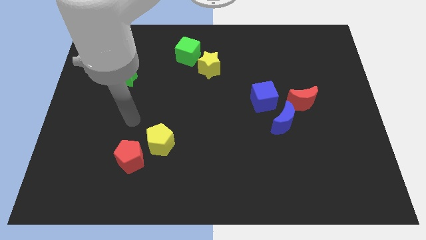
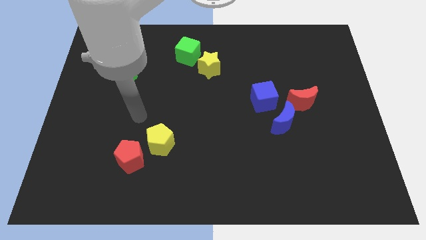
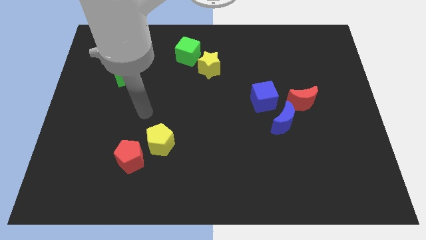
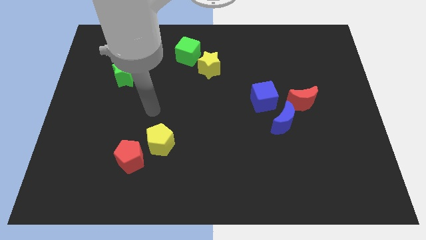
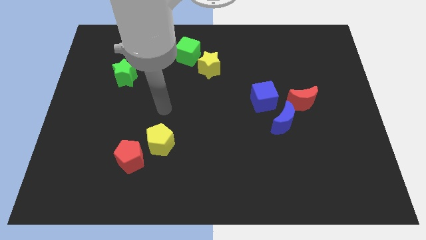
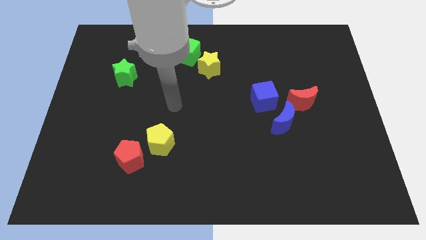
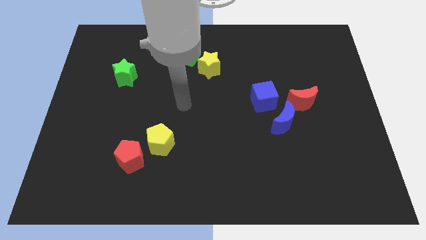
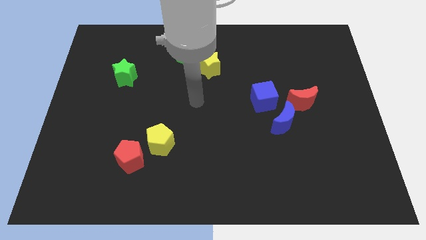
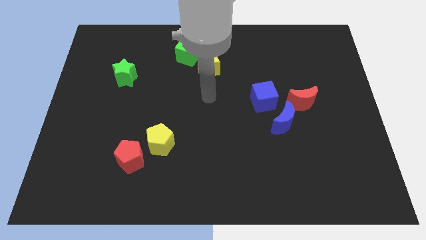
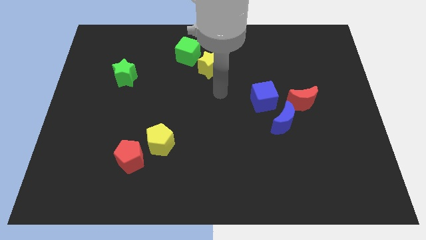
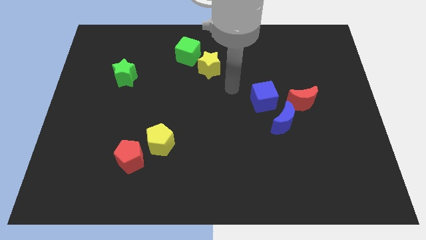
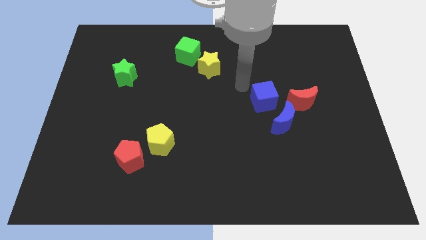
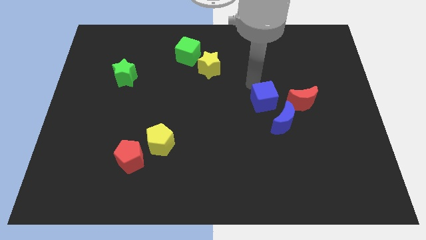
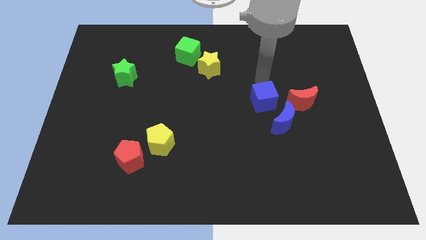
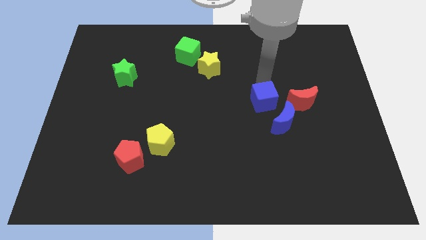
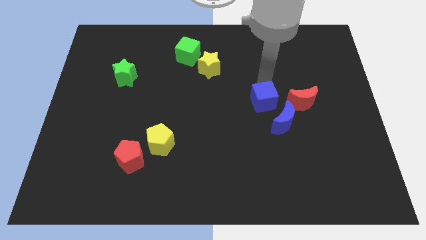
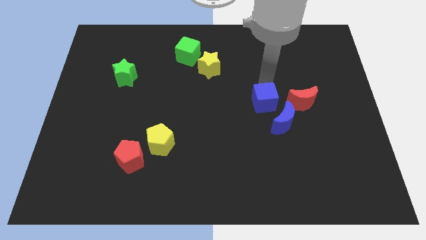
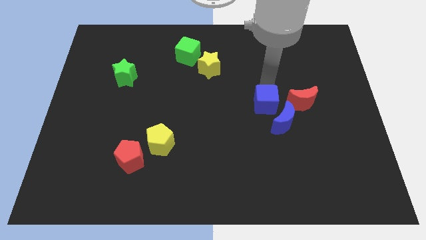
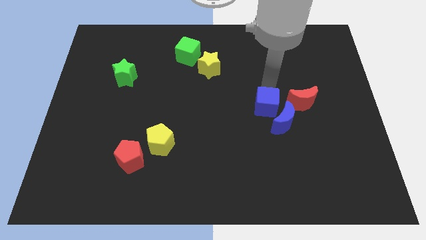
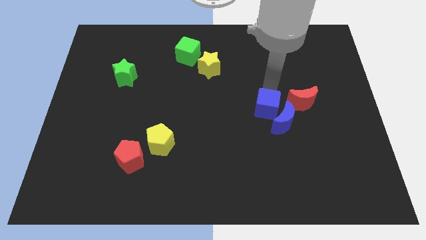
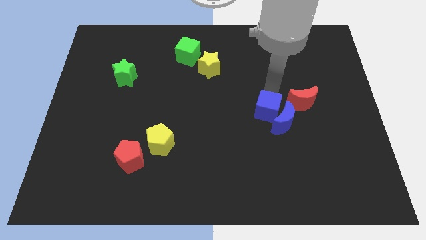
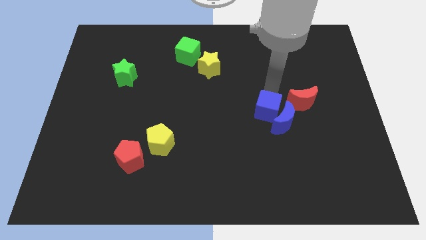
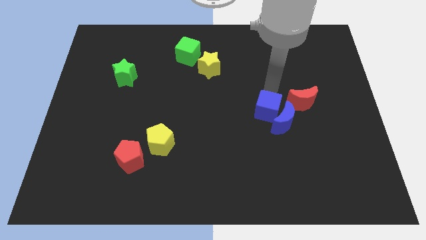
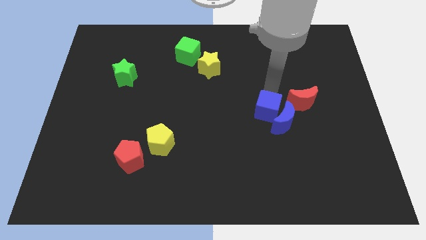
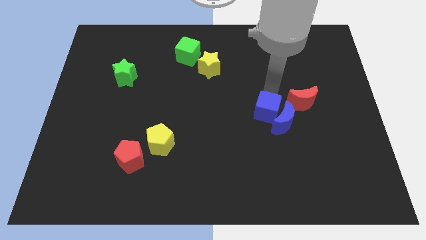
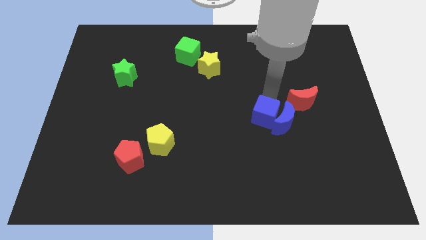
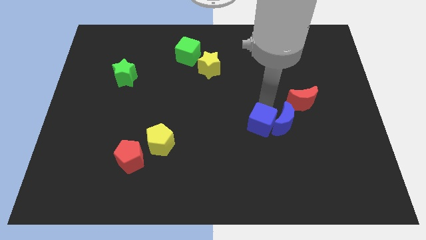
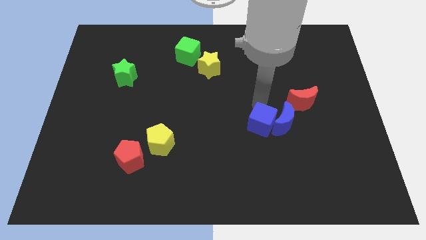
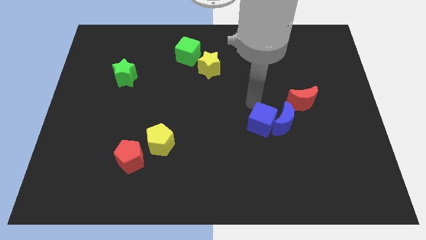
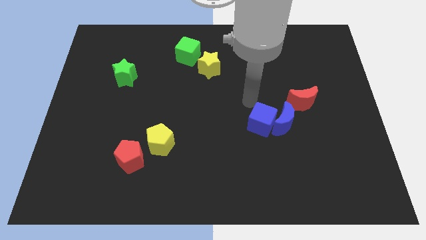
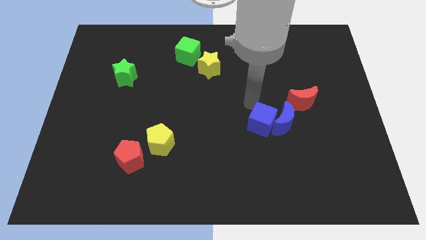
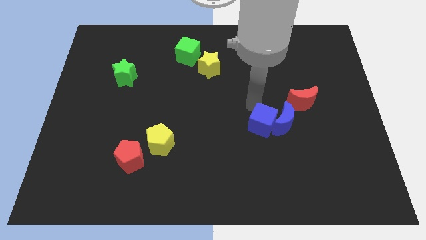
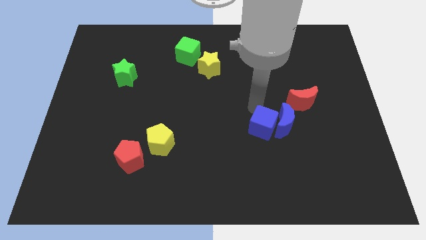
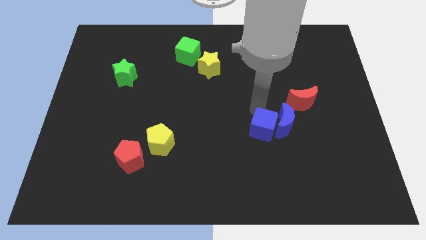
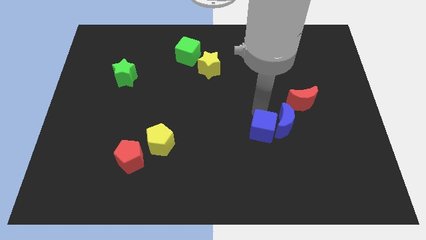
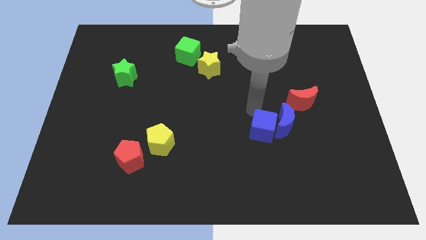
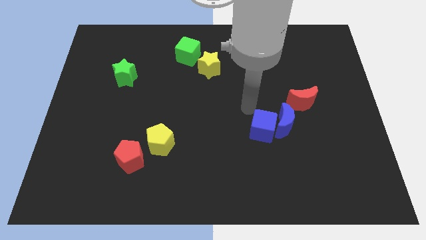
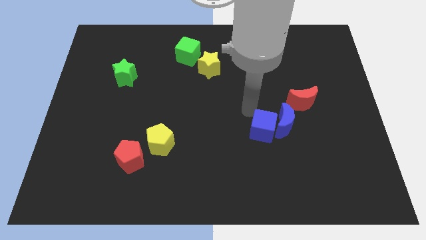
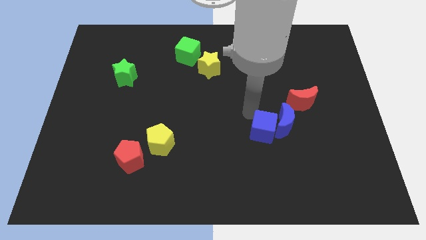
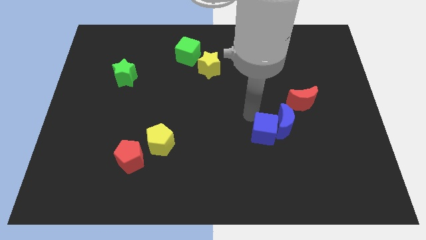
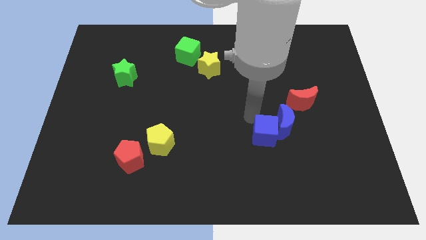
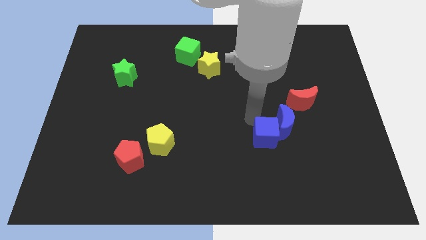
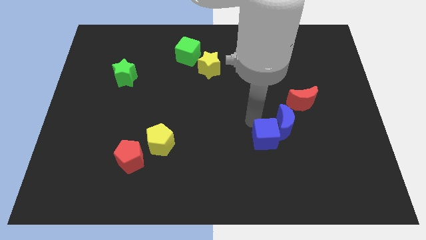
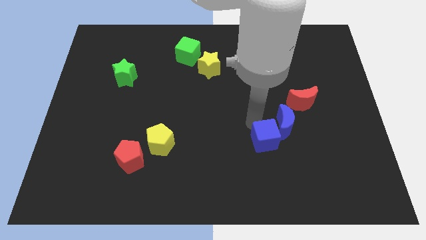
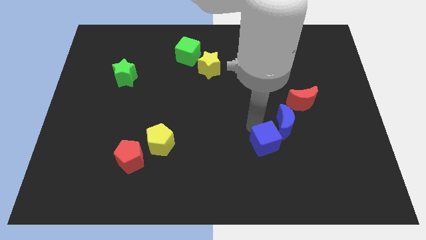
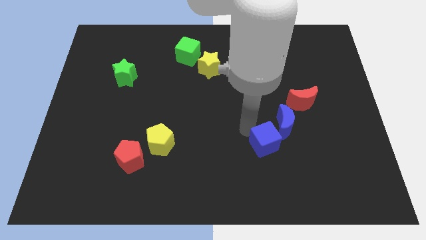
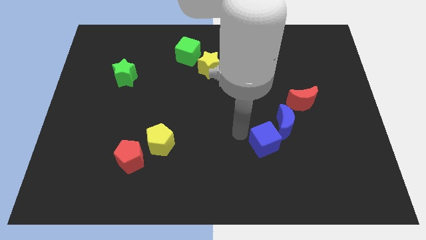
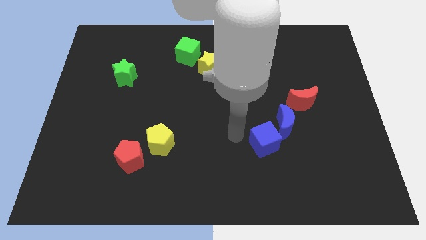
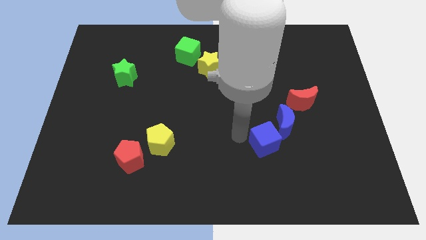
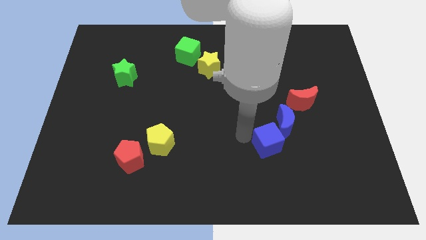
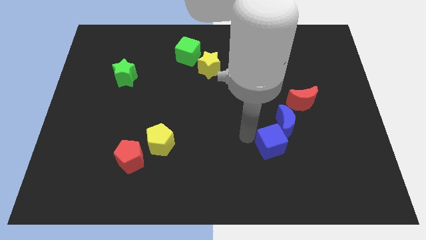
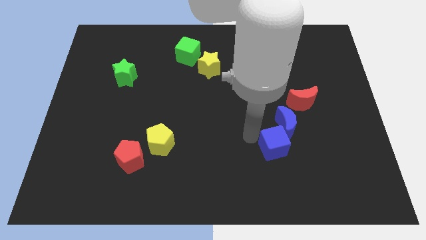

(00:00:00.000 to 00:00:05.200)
push the blue cube a bit downwards and right diagonally

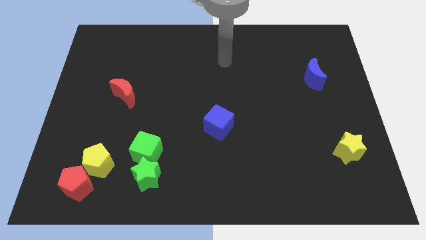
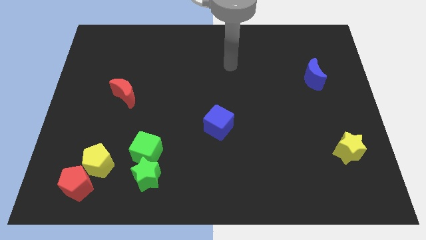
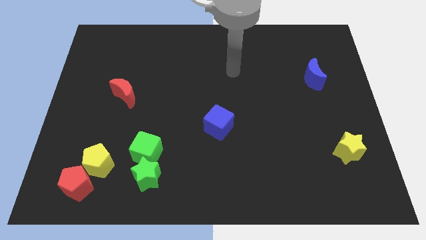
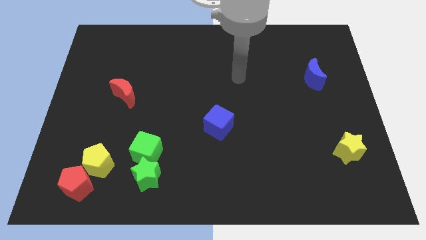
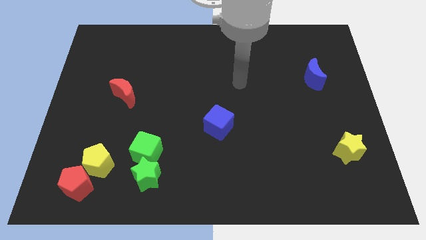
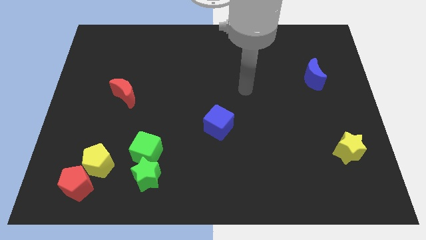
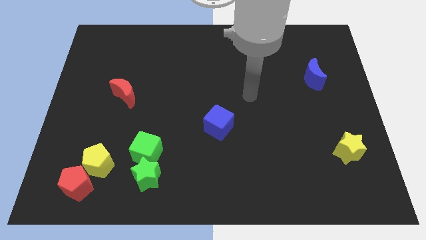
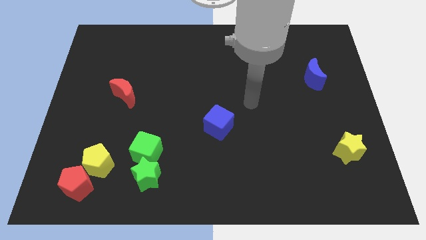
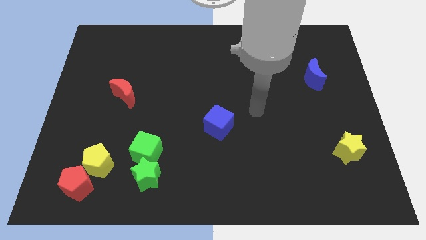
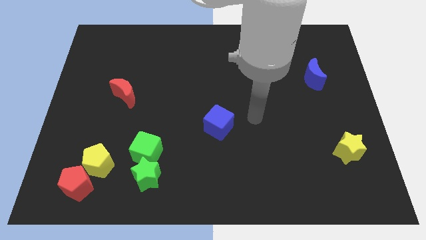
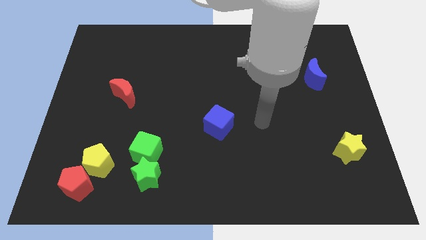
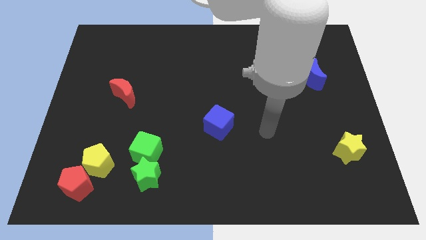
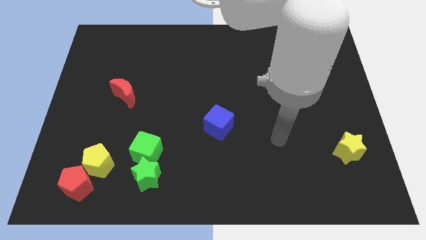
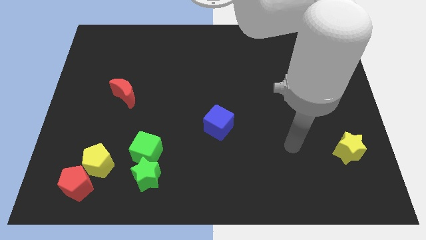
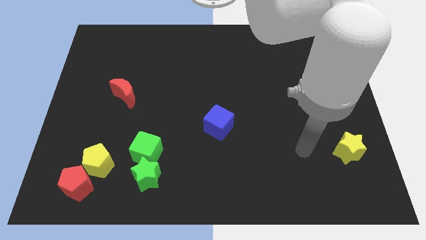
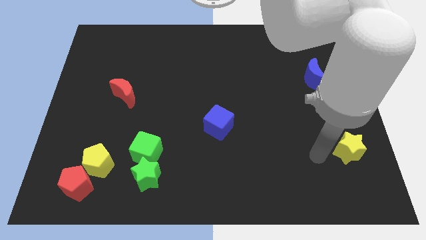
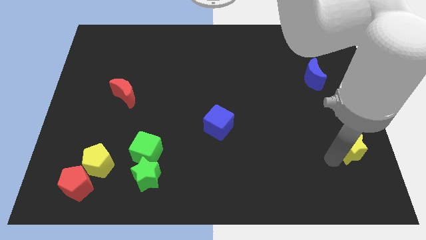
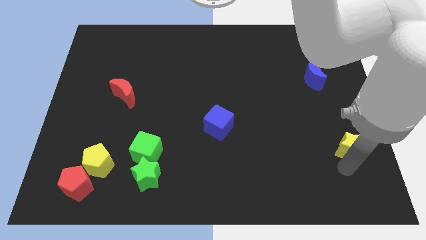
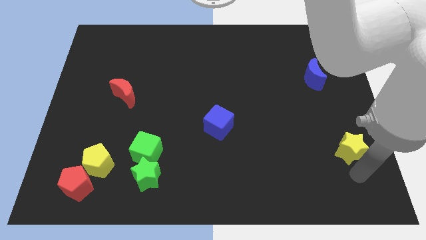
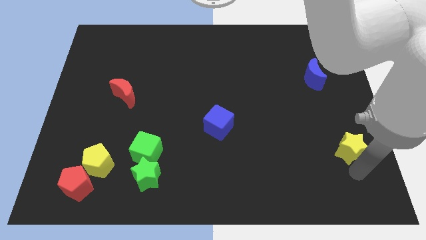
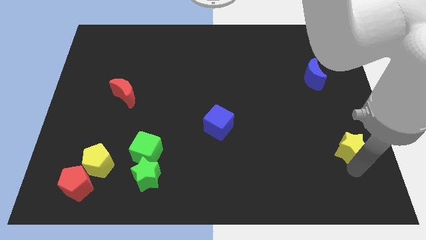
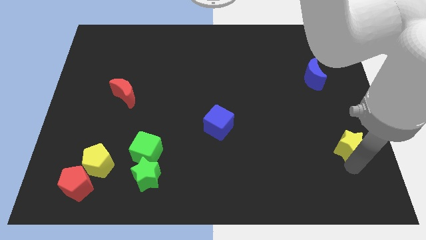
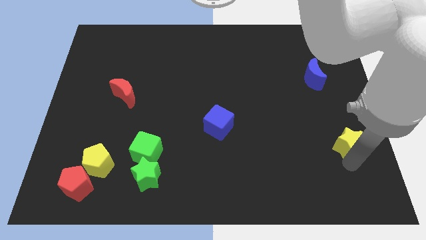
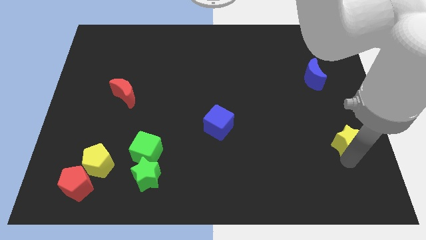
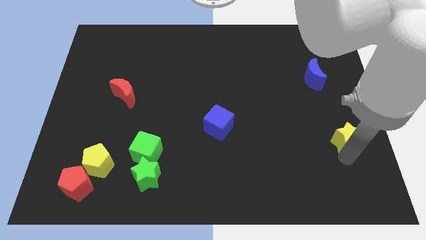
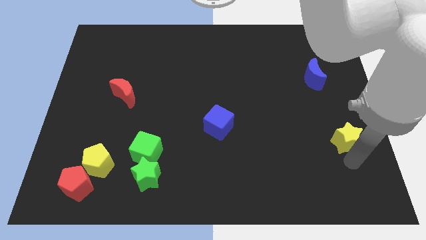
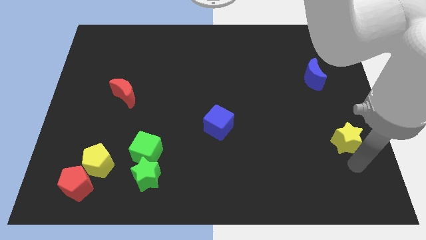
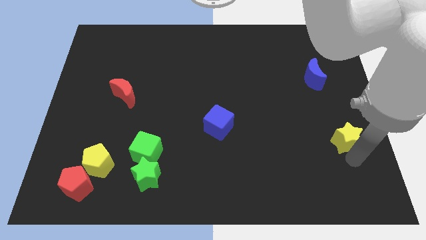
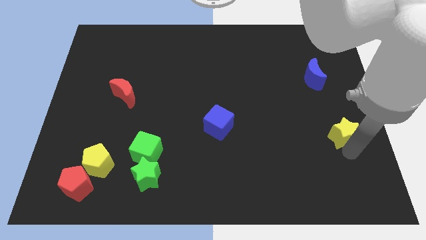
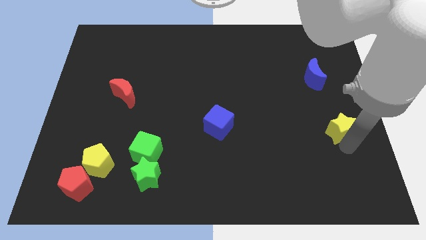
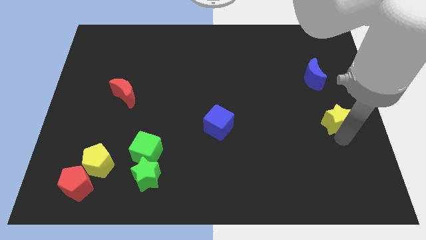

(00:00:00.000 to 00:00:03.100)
slightly slide the yellow star upwards
